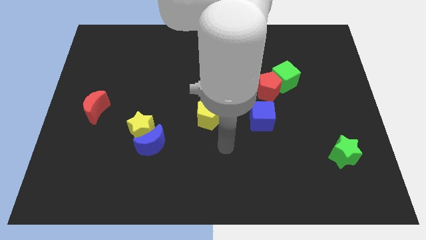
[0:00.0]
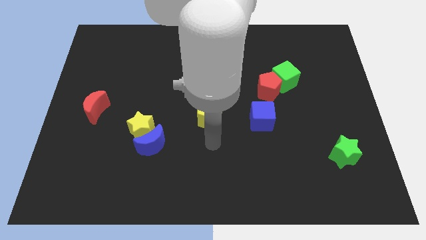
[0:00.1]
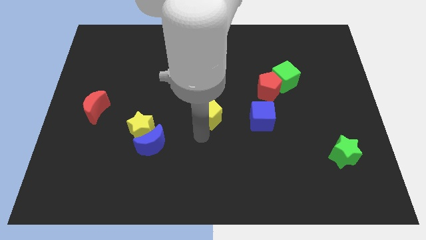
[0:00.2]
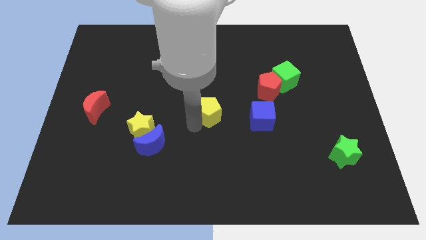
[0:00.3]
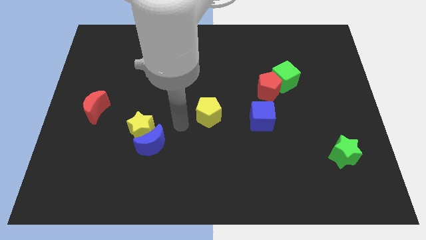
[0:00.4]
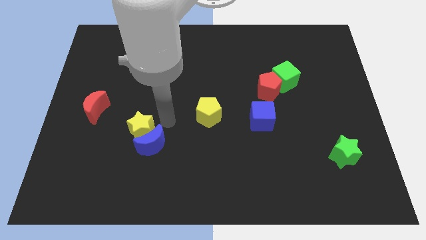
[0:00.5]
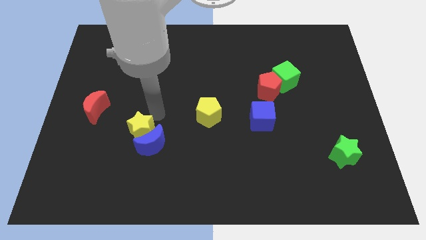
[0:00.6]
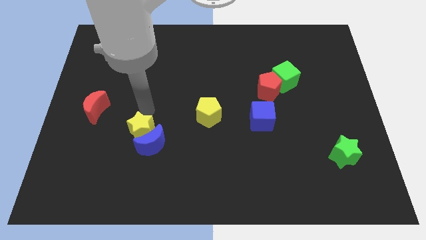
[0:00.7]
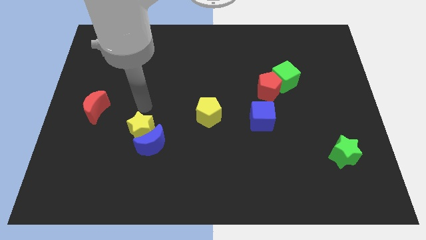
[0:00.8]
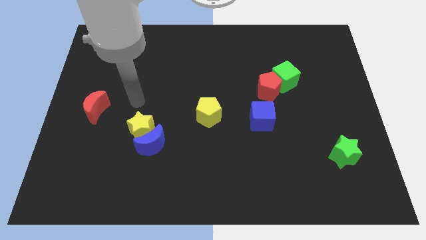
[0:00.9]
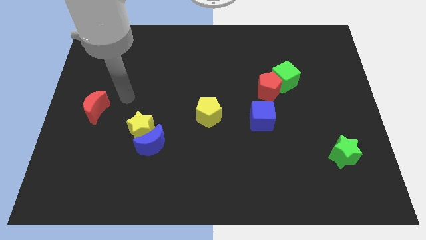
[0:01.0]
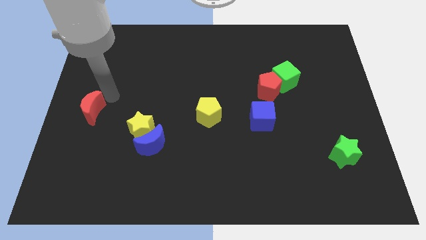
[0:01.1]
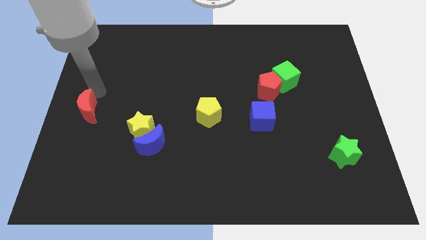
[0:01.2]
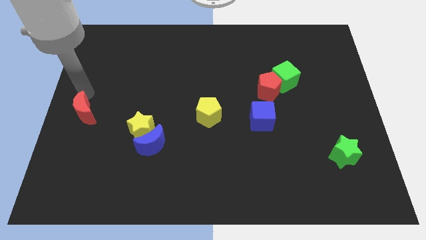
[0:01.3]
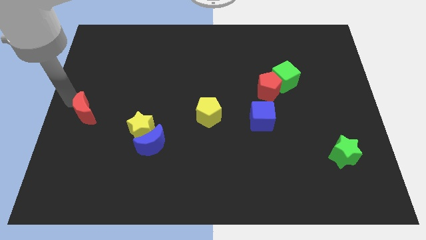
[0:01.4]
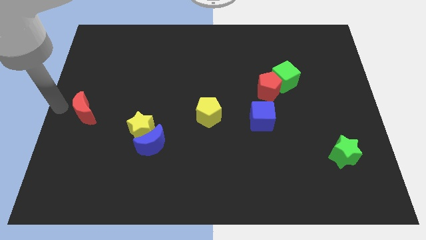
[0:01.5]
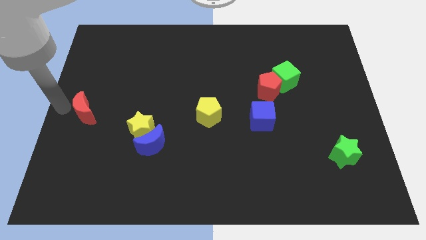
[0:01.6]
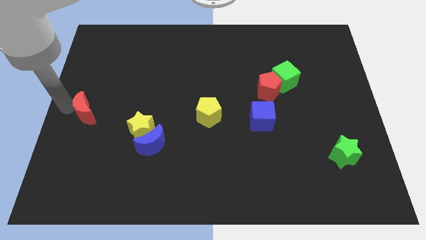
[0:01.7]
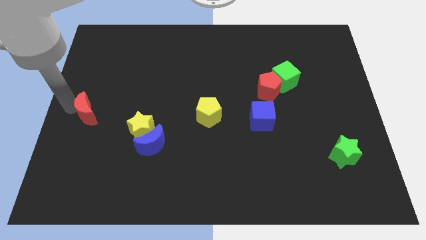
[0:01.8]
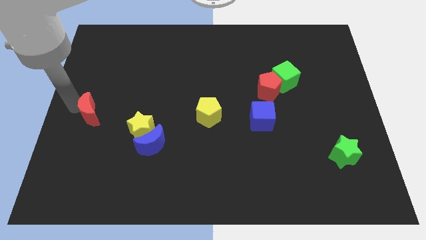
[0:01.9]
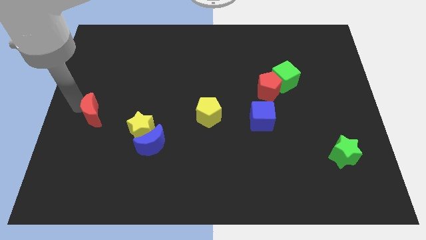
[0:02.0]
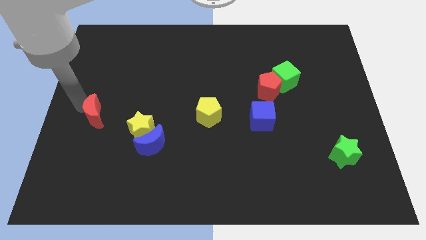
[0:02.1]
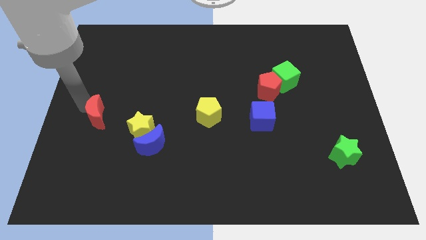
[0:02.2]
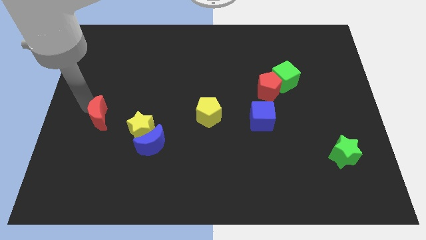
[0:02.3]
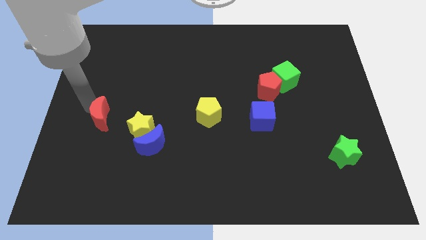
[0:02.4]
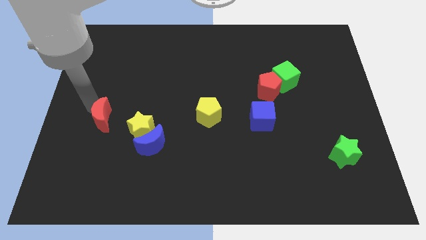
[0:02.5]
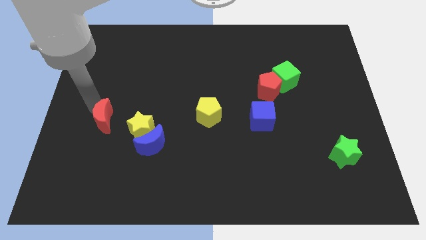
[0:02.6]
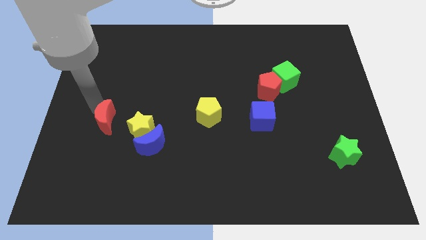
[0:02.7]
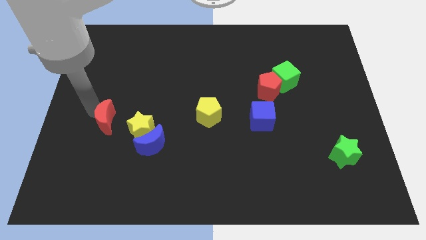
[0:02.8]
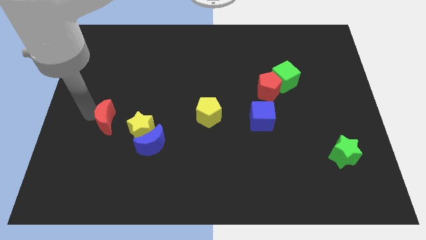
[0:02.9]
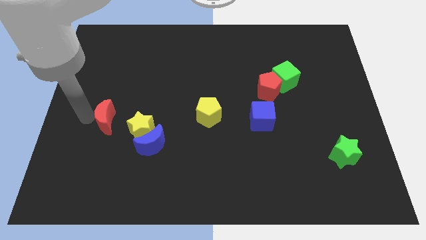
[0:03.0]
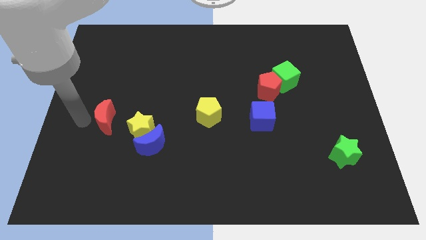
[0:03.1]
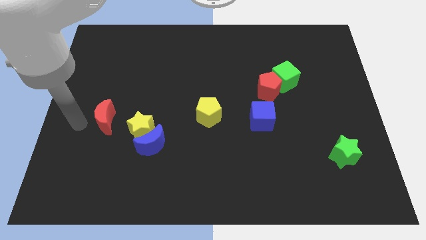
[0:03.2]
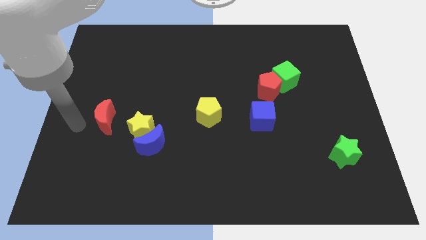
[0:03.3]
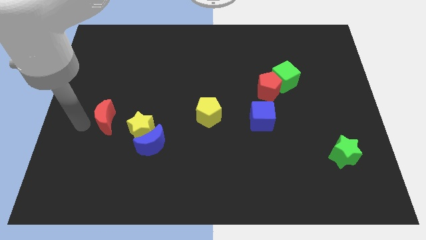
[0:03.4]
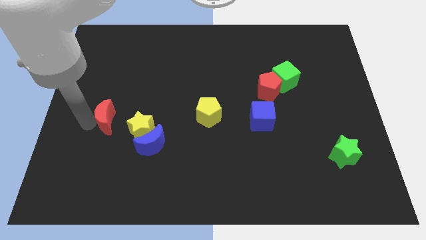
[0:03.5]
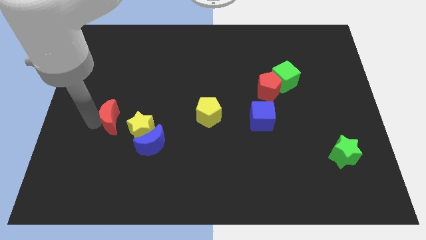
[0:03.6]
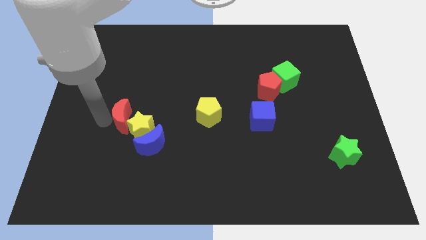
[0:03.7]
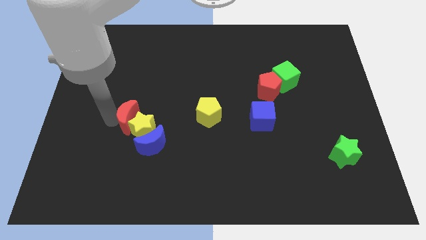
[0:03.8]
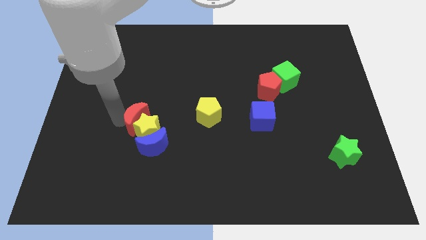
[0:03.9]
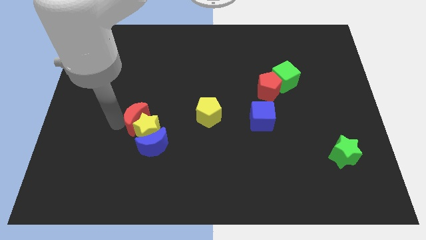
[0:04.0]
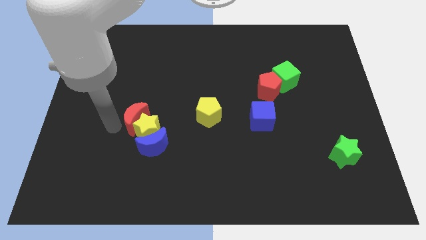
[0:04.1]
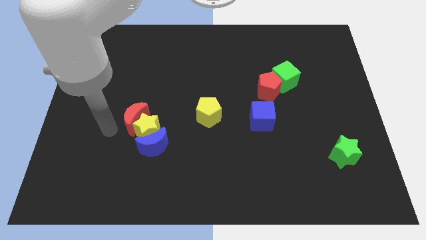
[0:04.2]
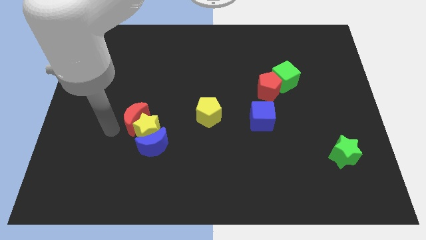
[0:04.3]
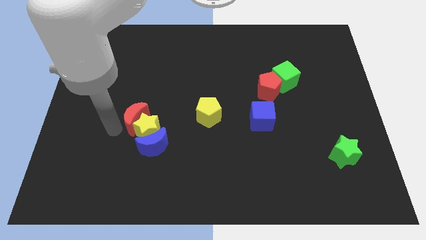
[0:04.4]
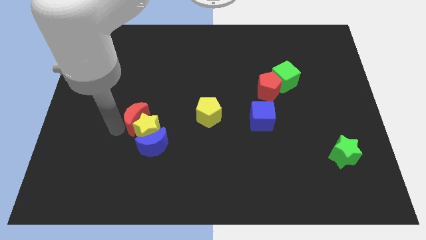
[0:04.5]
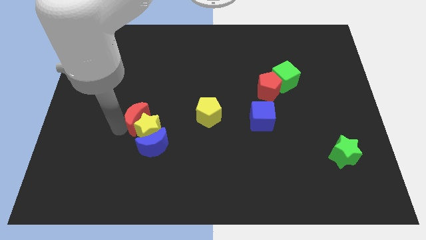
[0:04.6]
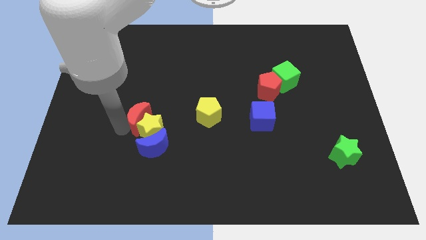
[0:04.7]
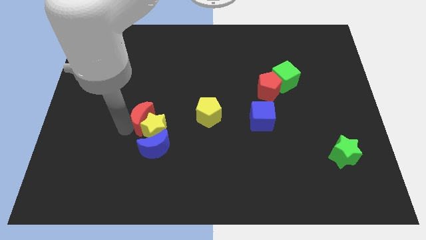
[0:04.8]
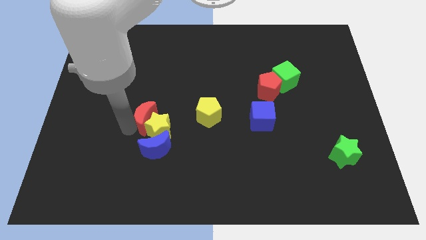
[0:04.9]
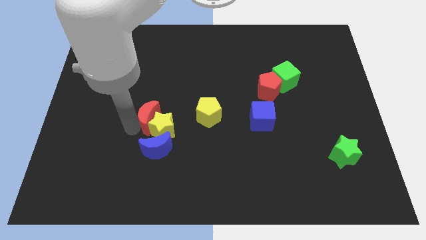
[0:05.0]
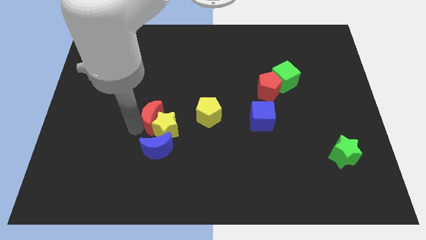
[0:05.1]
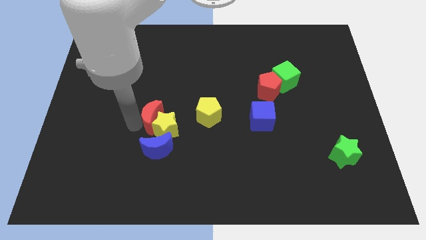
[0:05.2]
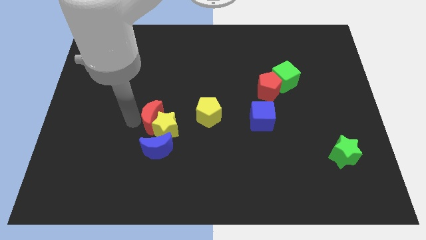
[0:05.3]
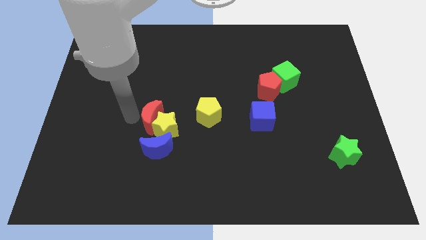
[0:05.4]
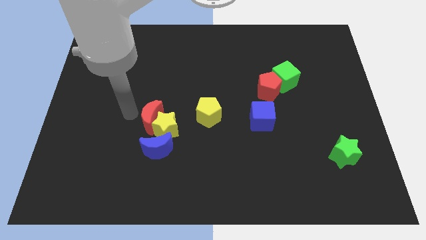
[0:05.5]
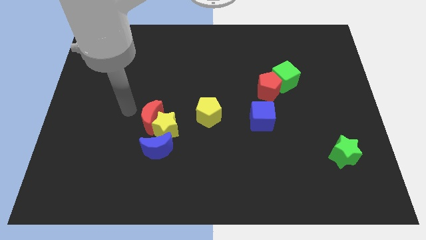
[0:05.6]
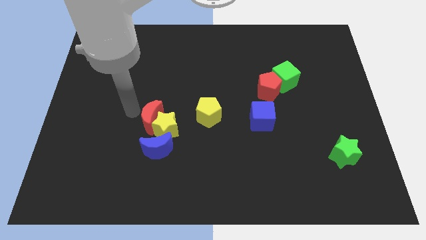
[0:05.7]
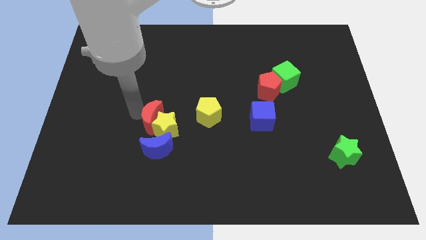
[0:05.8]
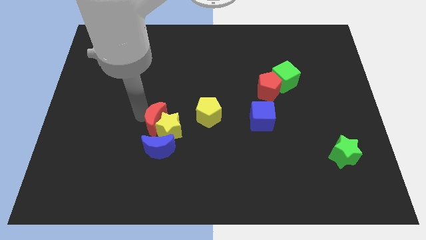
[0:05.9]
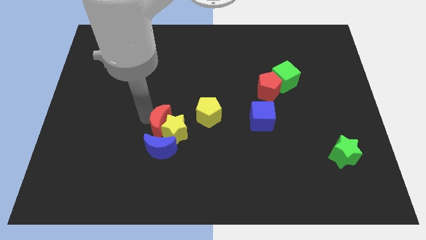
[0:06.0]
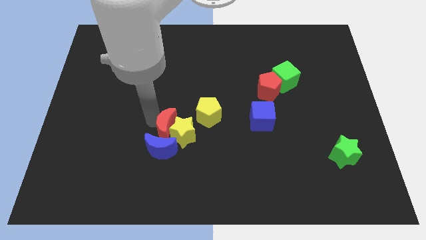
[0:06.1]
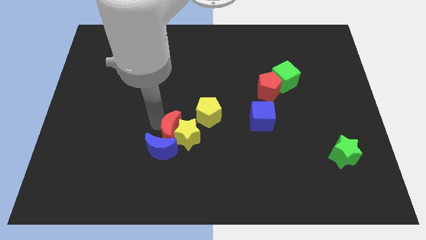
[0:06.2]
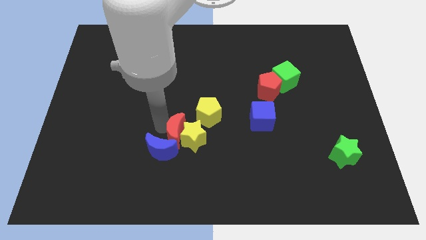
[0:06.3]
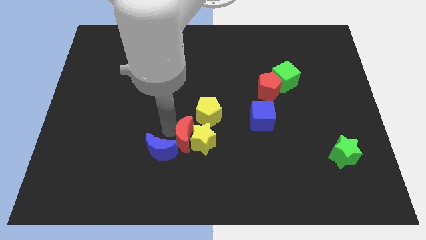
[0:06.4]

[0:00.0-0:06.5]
push the red moon just right of the blue moon

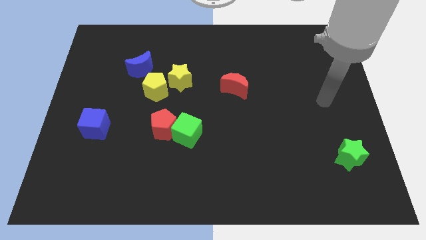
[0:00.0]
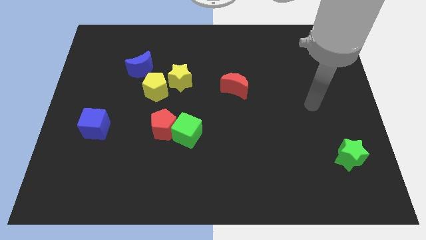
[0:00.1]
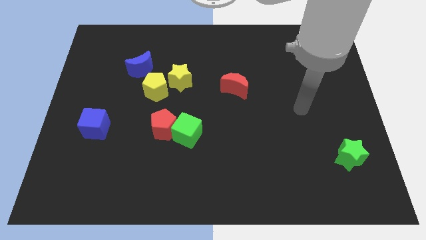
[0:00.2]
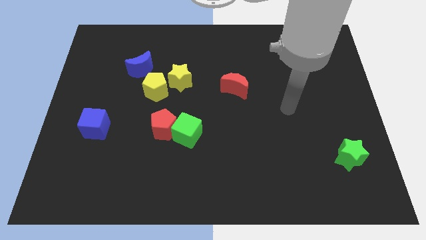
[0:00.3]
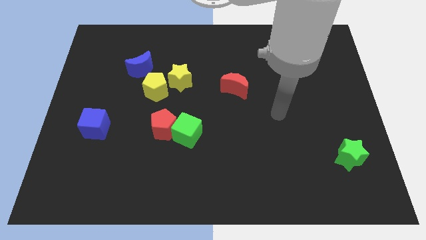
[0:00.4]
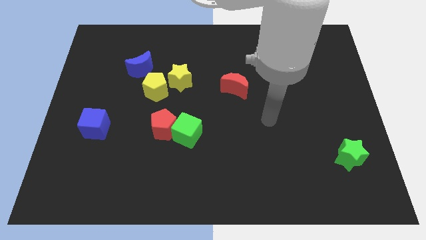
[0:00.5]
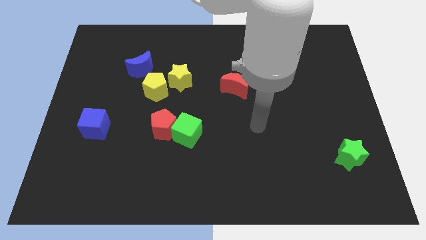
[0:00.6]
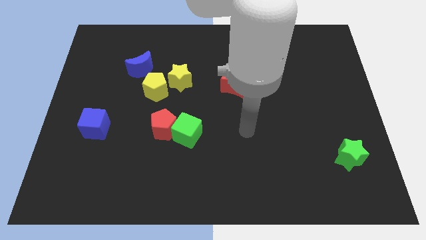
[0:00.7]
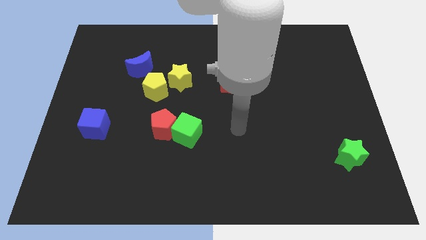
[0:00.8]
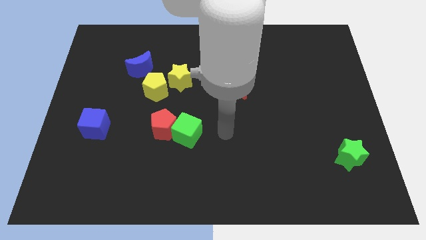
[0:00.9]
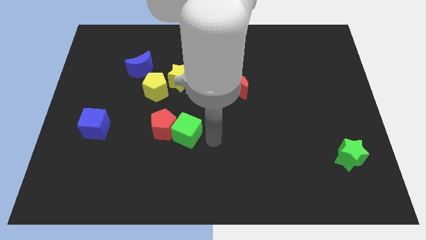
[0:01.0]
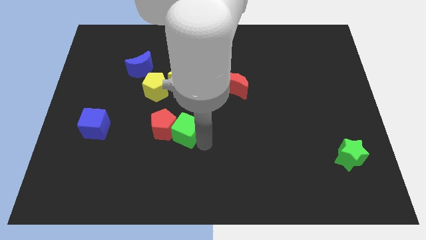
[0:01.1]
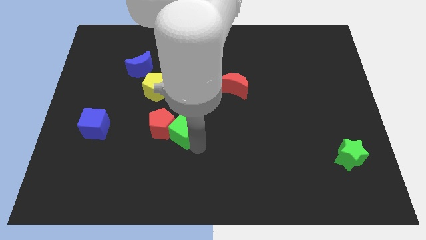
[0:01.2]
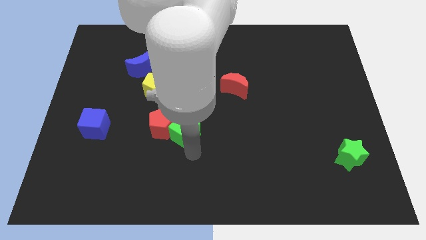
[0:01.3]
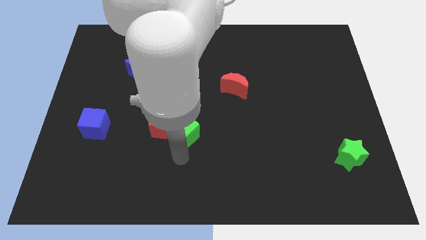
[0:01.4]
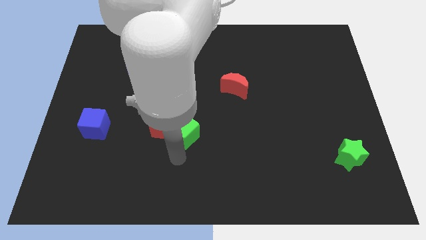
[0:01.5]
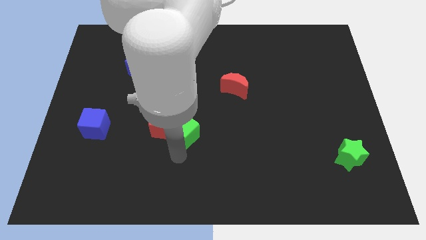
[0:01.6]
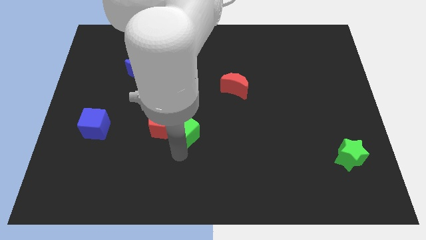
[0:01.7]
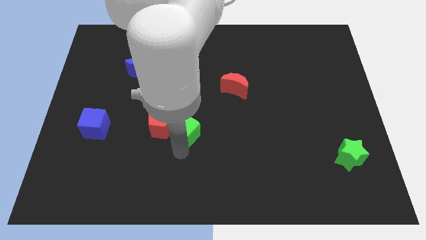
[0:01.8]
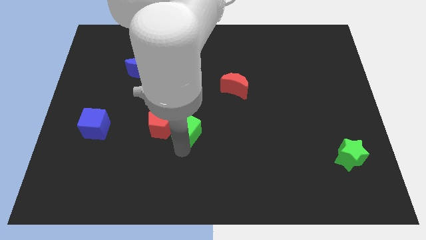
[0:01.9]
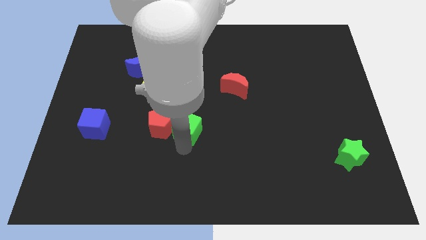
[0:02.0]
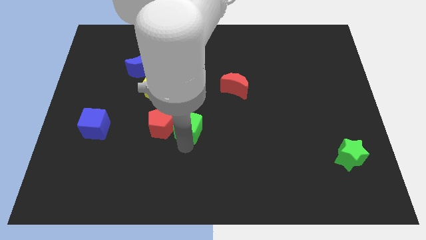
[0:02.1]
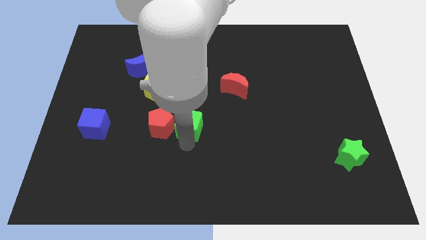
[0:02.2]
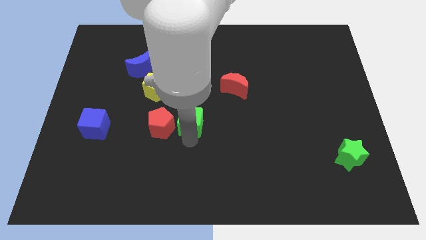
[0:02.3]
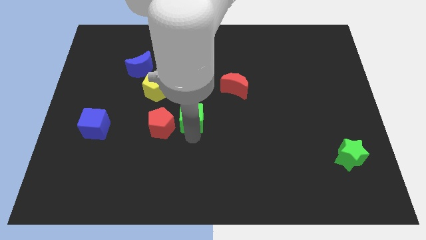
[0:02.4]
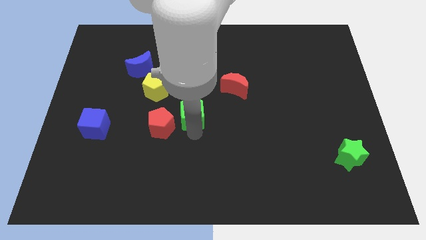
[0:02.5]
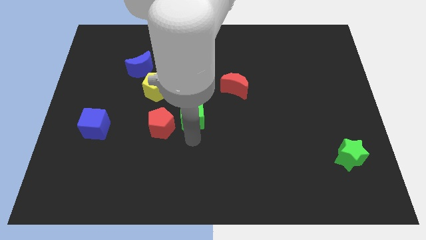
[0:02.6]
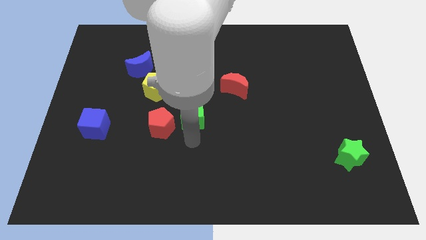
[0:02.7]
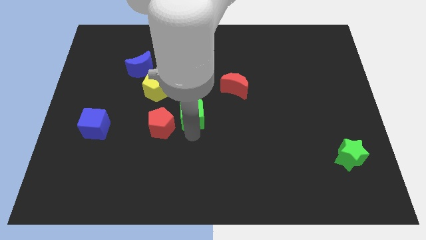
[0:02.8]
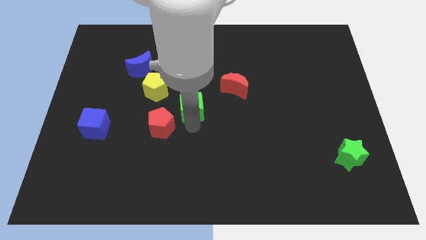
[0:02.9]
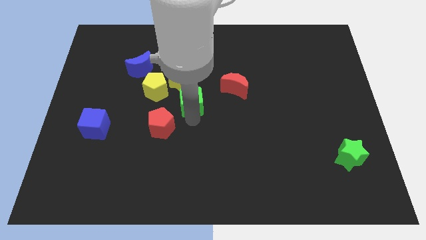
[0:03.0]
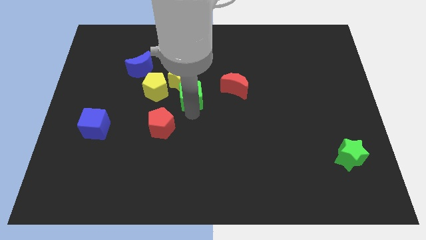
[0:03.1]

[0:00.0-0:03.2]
put the green cube to the left of the red moon
